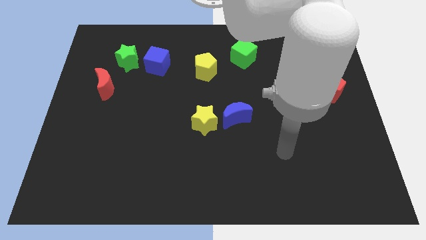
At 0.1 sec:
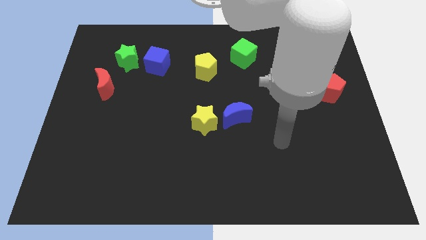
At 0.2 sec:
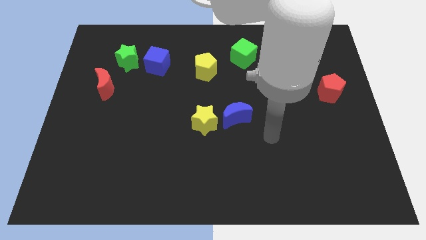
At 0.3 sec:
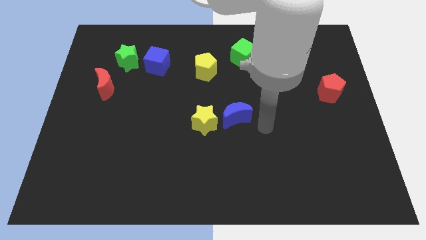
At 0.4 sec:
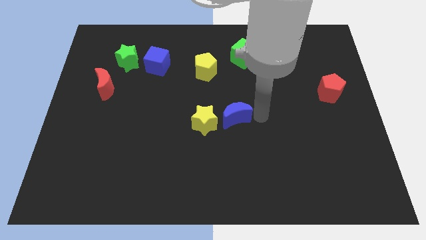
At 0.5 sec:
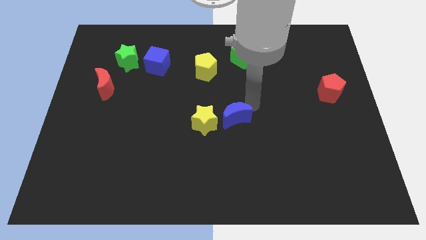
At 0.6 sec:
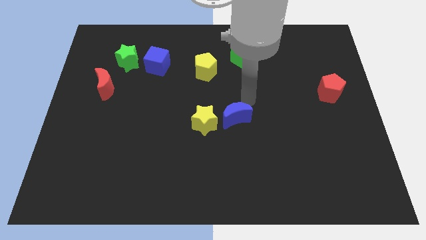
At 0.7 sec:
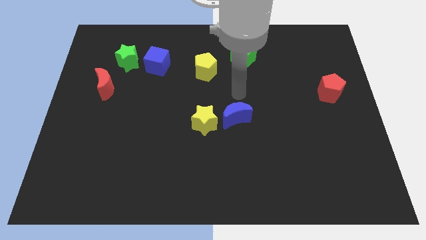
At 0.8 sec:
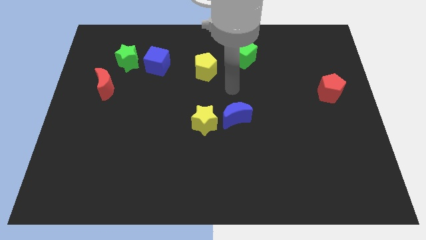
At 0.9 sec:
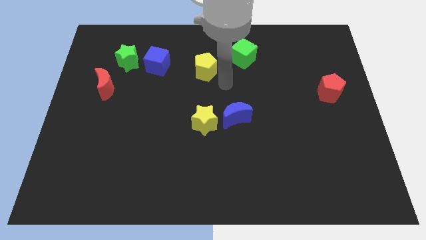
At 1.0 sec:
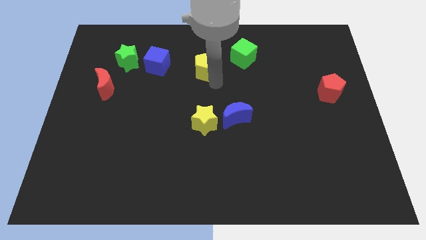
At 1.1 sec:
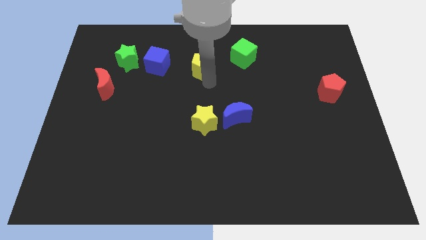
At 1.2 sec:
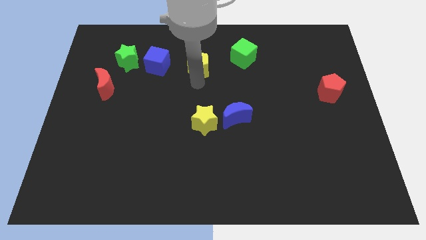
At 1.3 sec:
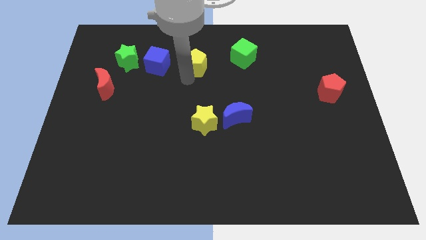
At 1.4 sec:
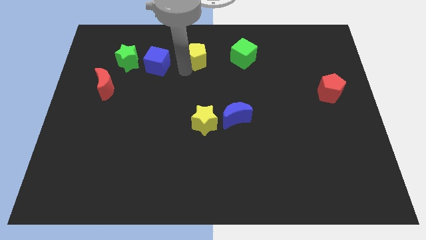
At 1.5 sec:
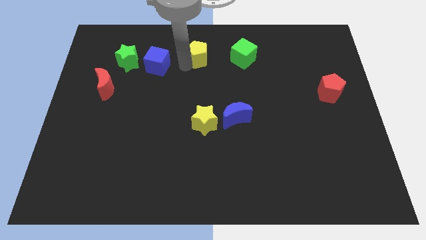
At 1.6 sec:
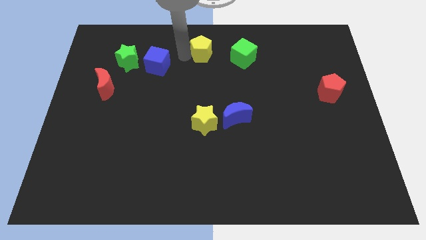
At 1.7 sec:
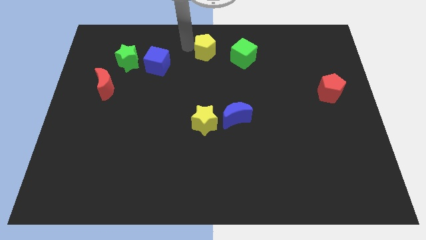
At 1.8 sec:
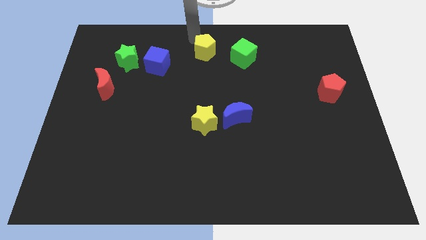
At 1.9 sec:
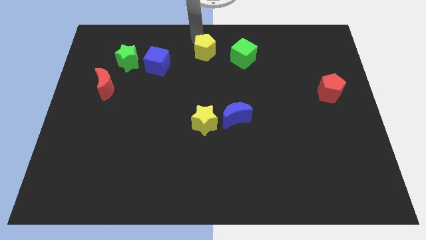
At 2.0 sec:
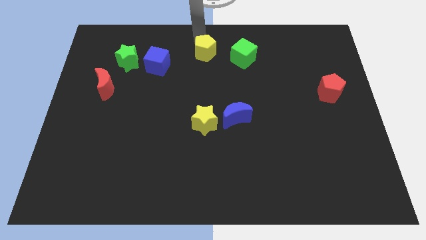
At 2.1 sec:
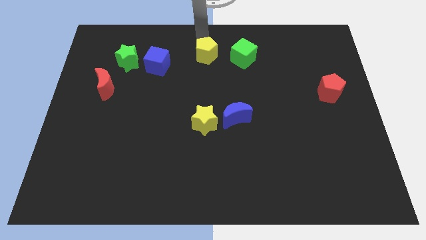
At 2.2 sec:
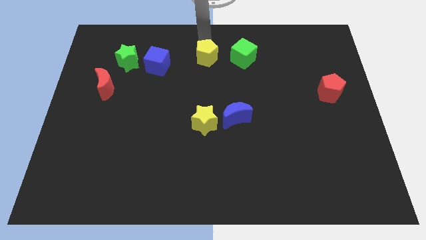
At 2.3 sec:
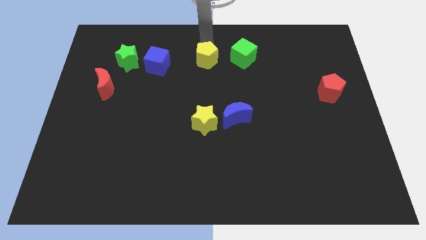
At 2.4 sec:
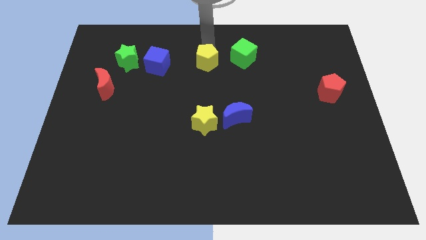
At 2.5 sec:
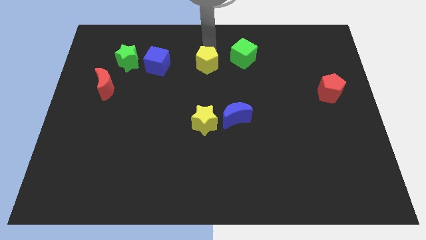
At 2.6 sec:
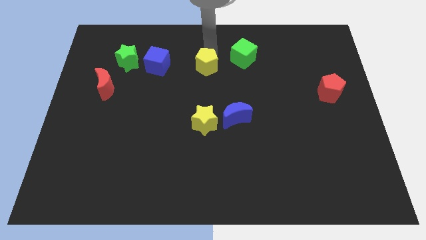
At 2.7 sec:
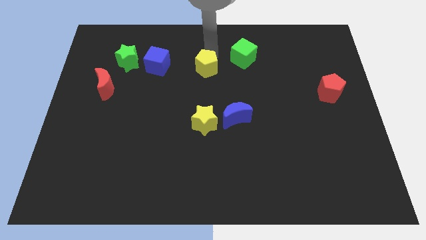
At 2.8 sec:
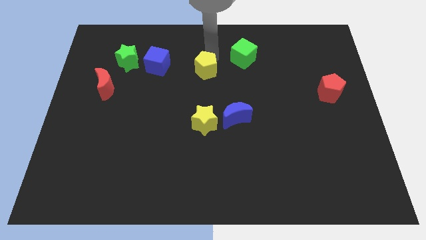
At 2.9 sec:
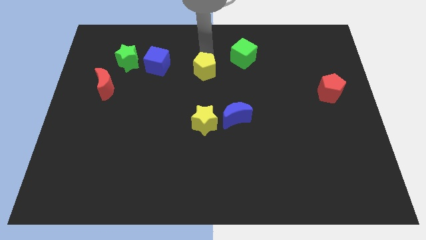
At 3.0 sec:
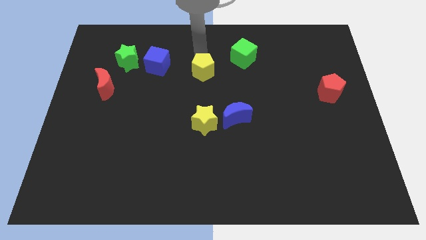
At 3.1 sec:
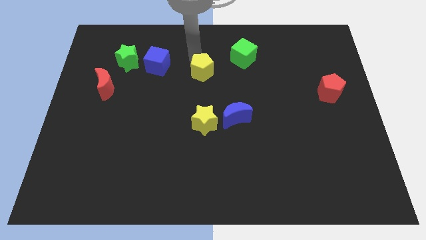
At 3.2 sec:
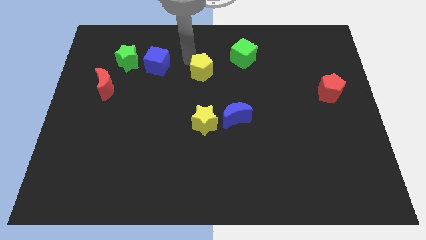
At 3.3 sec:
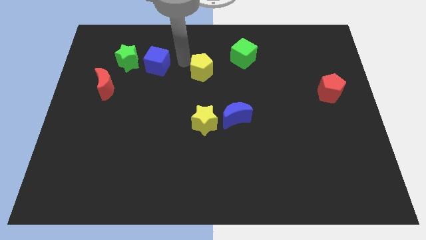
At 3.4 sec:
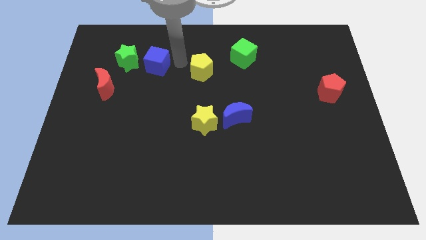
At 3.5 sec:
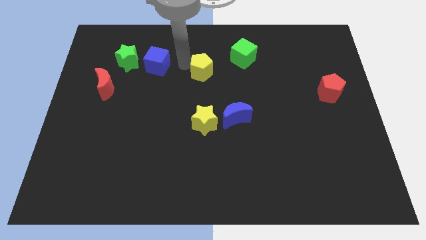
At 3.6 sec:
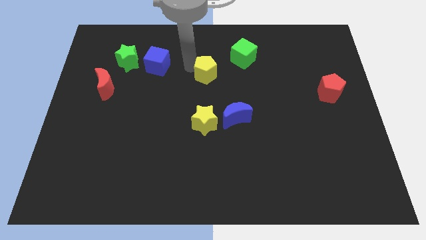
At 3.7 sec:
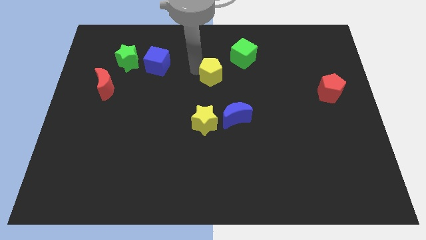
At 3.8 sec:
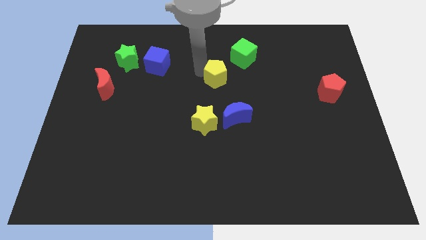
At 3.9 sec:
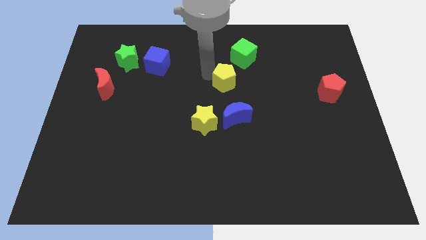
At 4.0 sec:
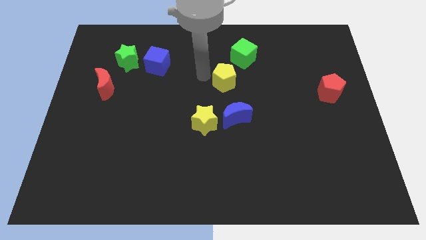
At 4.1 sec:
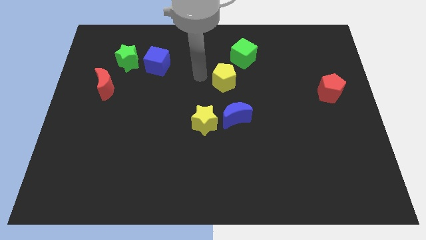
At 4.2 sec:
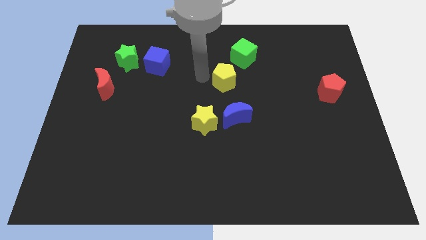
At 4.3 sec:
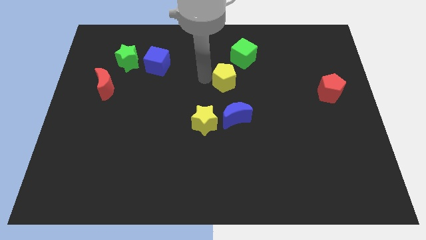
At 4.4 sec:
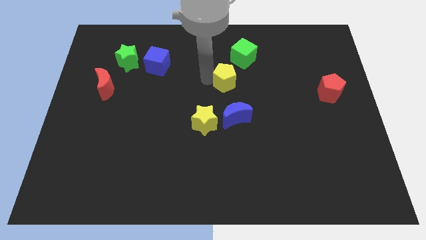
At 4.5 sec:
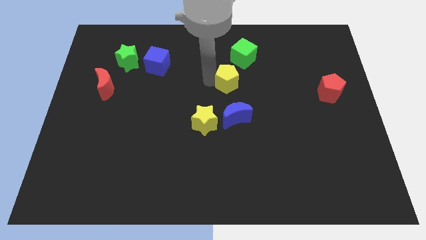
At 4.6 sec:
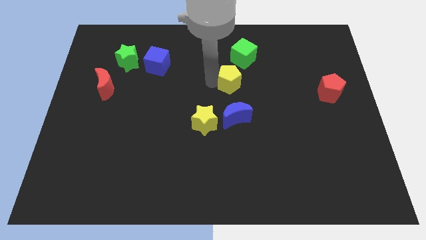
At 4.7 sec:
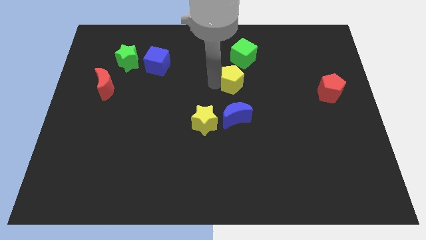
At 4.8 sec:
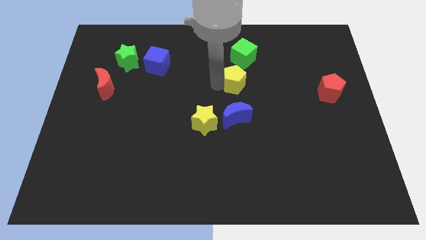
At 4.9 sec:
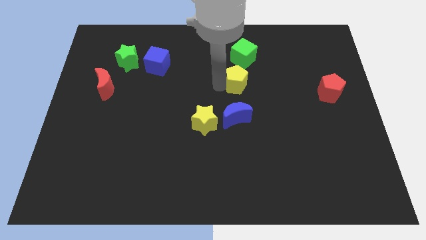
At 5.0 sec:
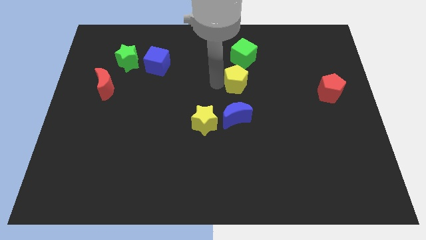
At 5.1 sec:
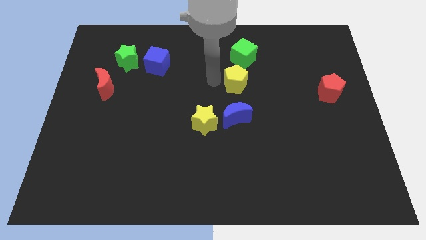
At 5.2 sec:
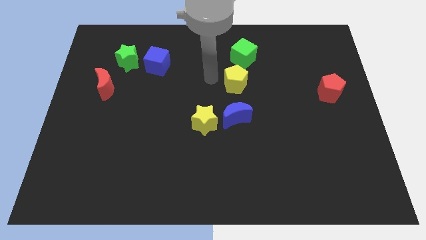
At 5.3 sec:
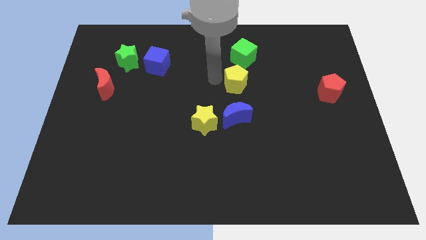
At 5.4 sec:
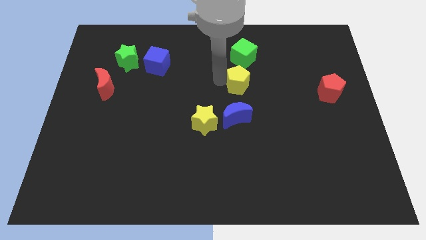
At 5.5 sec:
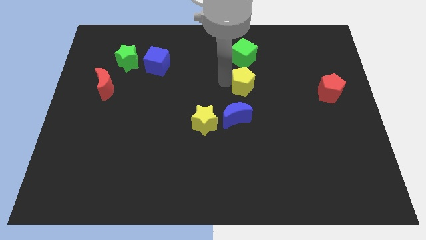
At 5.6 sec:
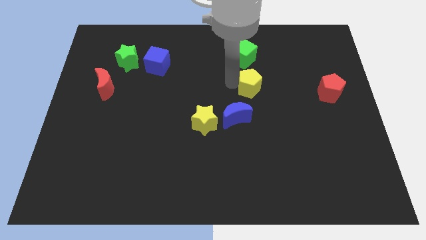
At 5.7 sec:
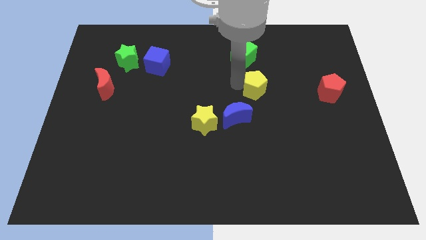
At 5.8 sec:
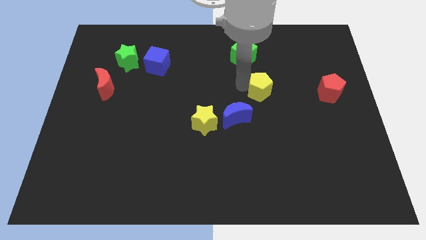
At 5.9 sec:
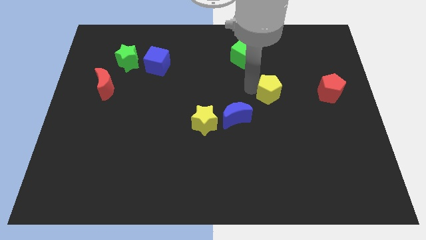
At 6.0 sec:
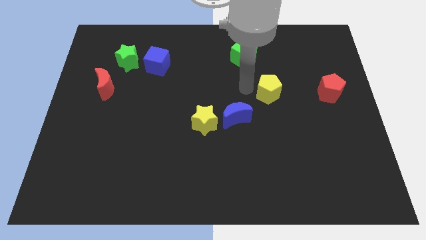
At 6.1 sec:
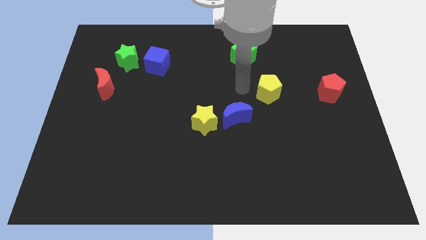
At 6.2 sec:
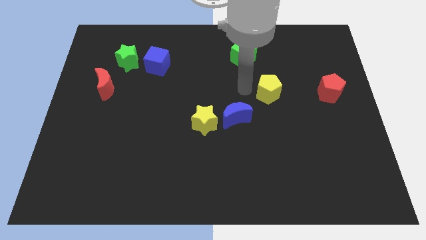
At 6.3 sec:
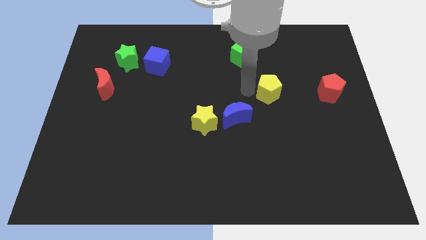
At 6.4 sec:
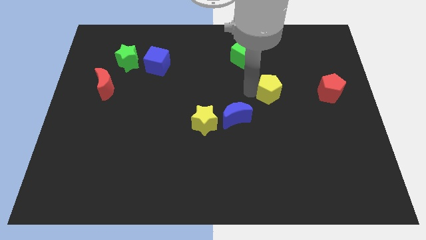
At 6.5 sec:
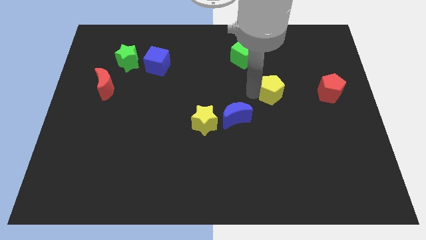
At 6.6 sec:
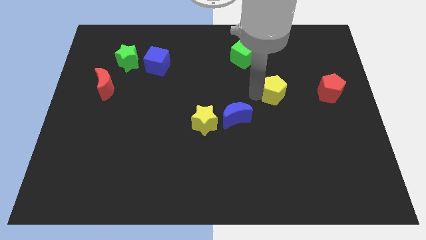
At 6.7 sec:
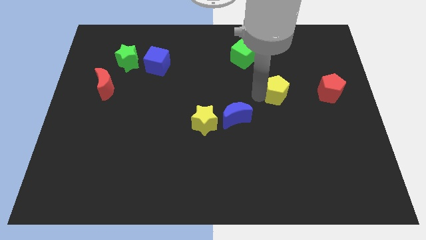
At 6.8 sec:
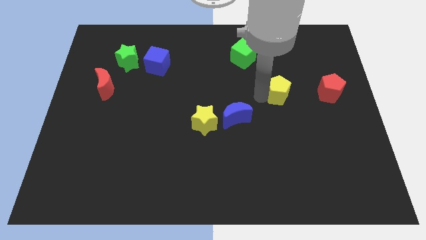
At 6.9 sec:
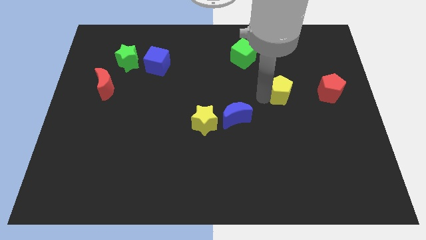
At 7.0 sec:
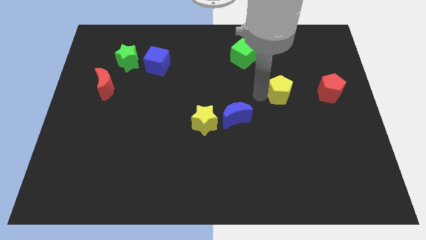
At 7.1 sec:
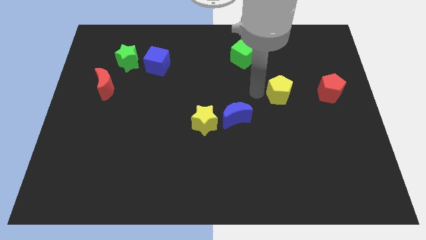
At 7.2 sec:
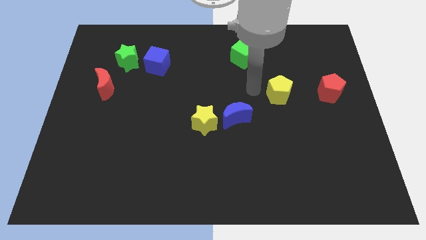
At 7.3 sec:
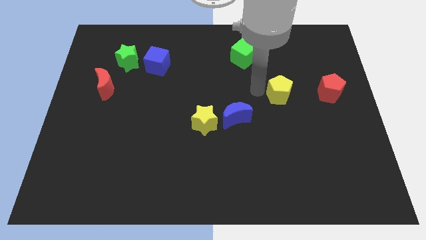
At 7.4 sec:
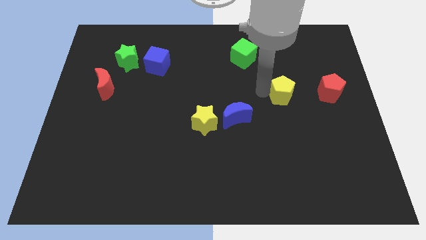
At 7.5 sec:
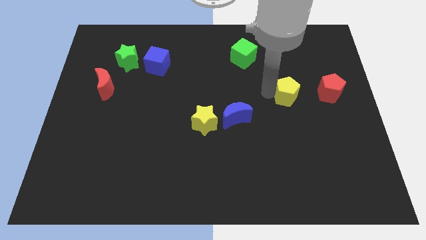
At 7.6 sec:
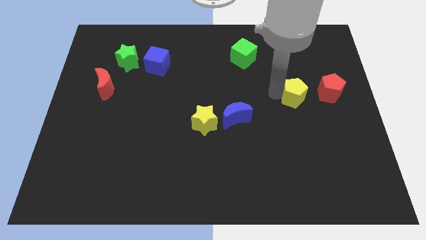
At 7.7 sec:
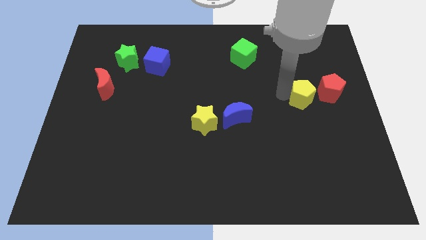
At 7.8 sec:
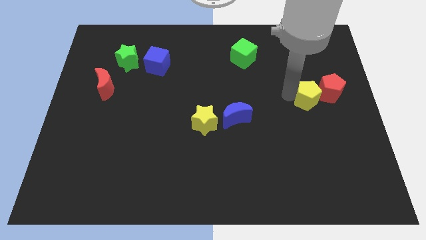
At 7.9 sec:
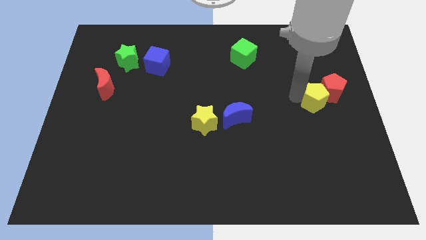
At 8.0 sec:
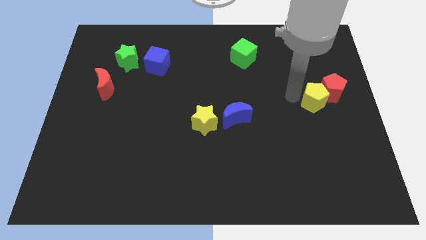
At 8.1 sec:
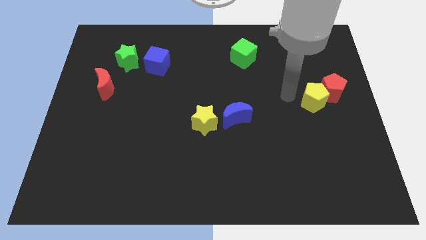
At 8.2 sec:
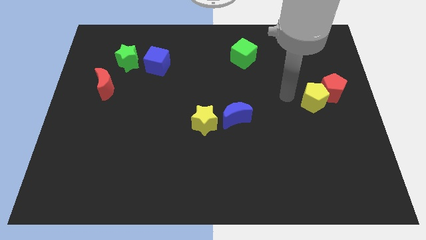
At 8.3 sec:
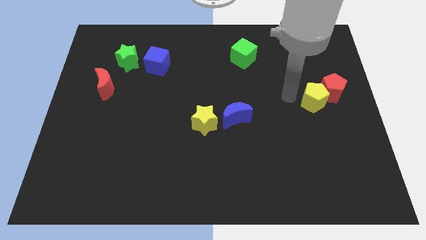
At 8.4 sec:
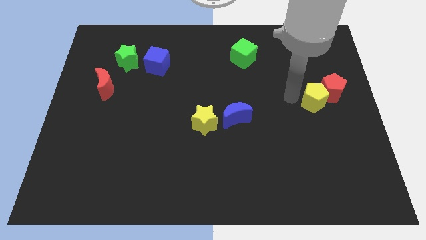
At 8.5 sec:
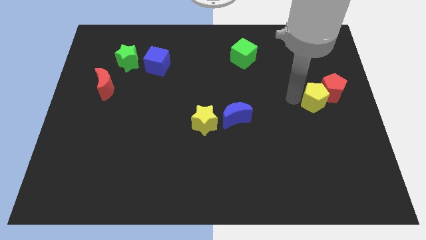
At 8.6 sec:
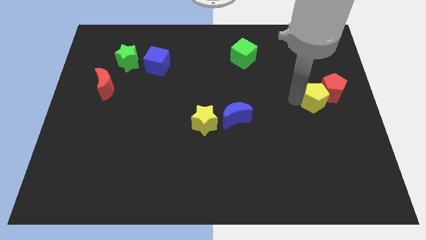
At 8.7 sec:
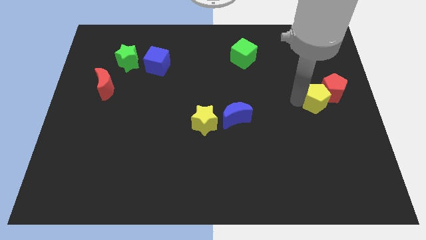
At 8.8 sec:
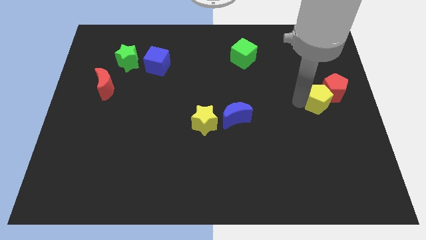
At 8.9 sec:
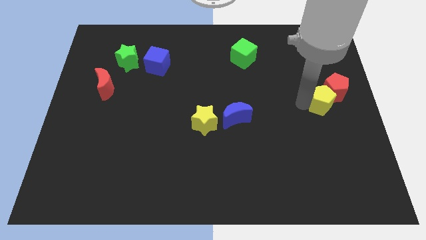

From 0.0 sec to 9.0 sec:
push the yellow pentagon to the right side of the board
